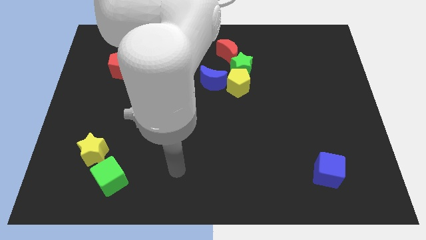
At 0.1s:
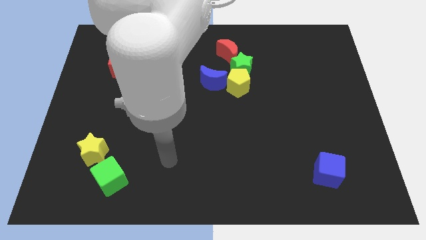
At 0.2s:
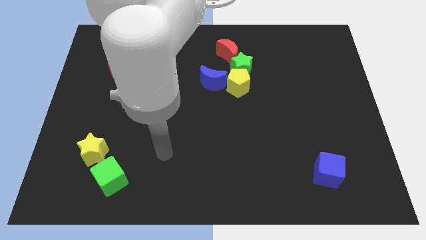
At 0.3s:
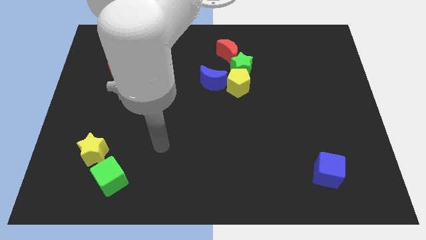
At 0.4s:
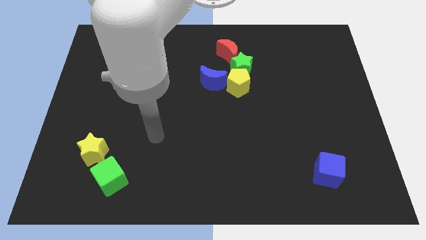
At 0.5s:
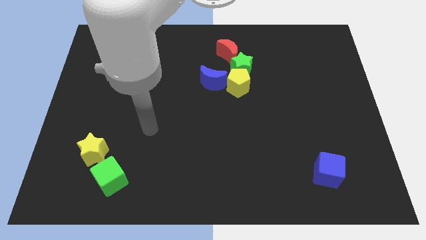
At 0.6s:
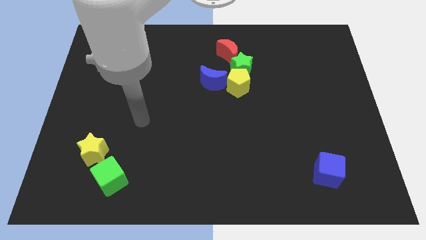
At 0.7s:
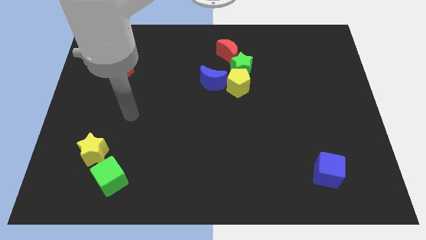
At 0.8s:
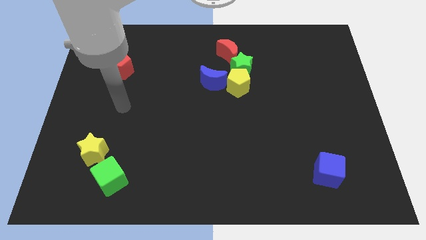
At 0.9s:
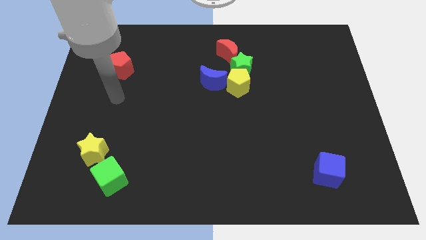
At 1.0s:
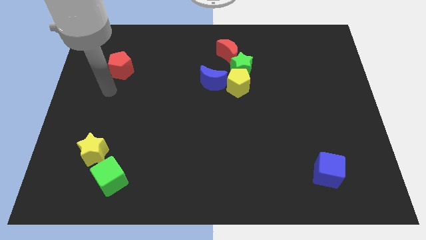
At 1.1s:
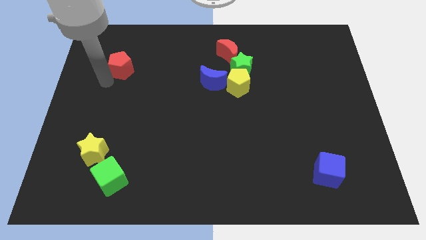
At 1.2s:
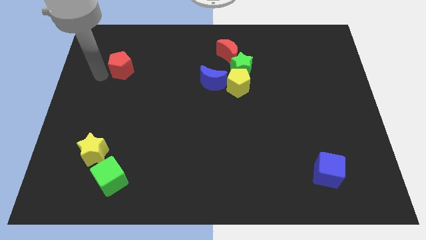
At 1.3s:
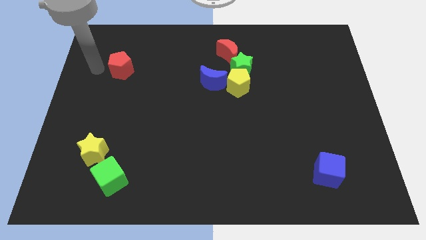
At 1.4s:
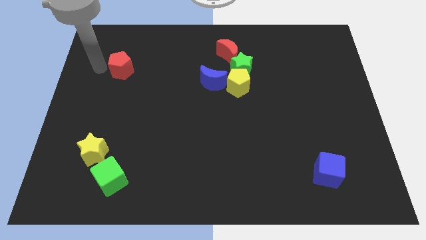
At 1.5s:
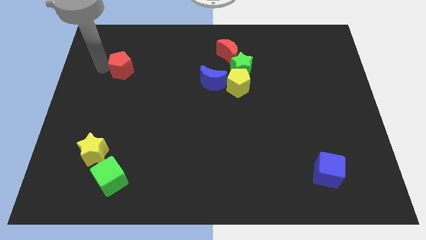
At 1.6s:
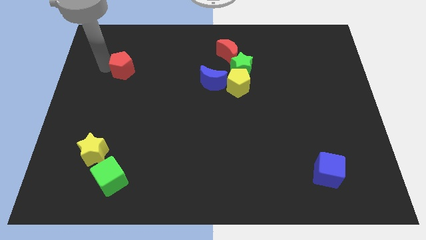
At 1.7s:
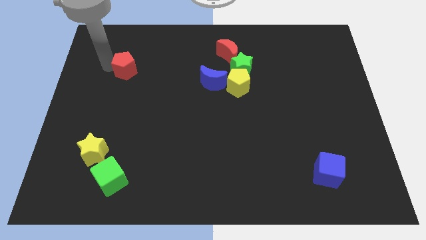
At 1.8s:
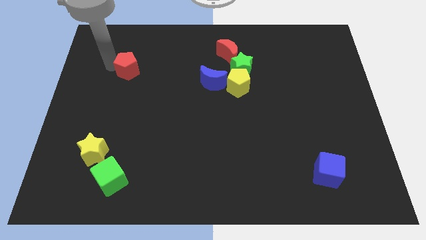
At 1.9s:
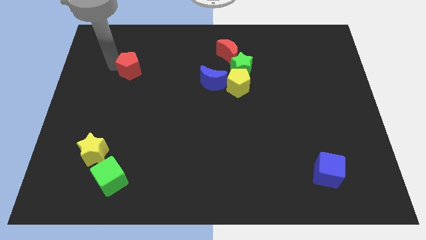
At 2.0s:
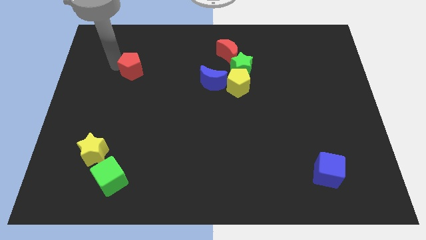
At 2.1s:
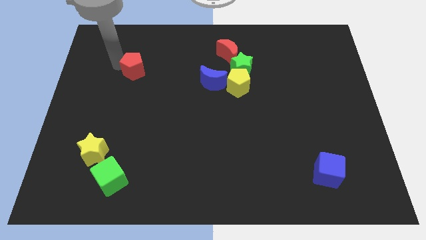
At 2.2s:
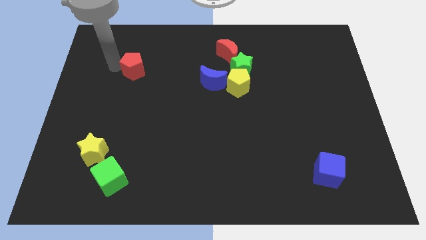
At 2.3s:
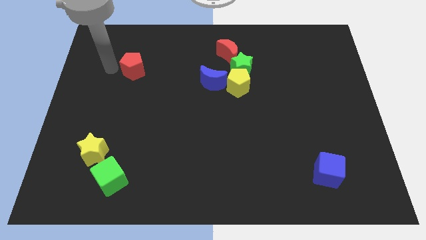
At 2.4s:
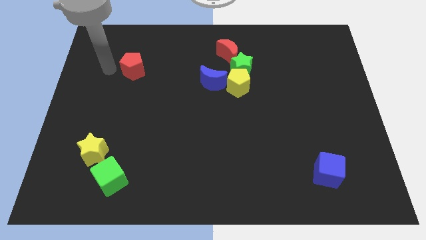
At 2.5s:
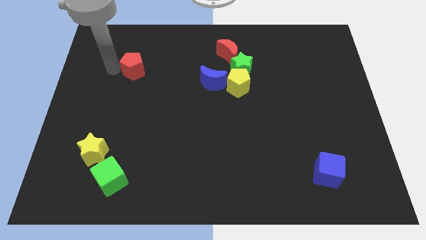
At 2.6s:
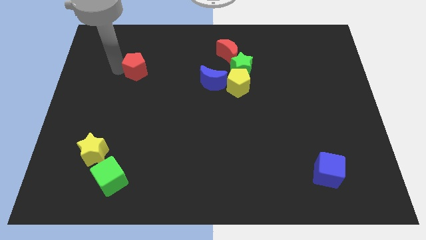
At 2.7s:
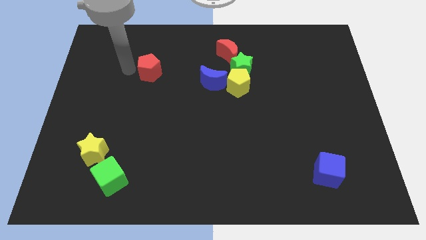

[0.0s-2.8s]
push the red pentagon slightly to the right

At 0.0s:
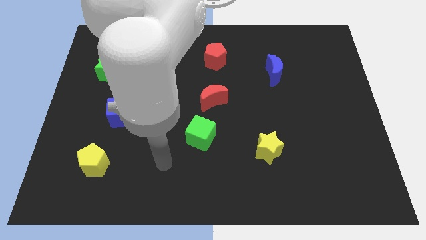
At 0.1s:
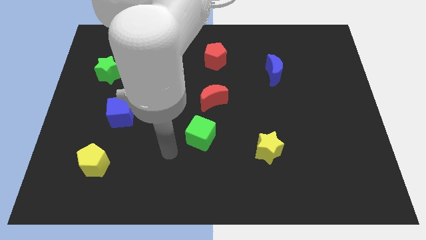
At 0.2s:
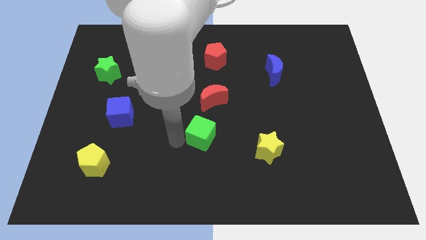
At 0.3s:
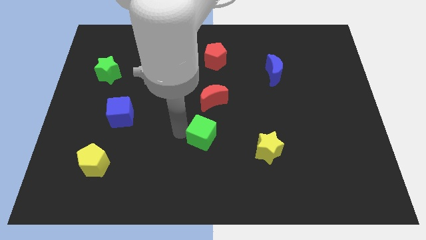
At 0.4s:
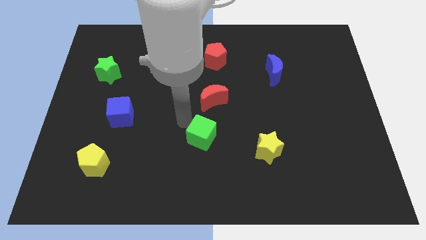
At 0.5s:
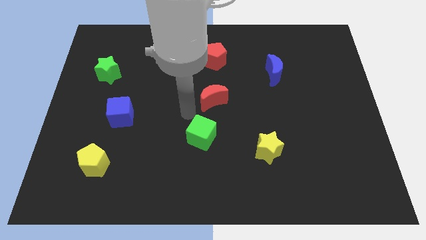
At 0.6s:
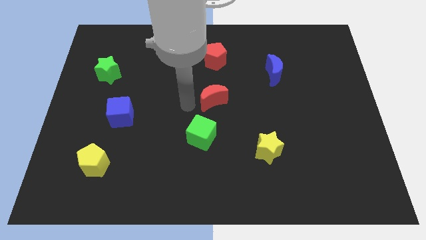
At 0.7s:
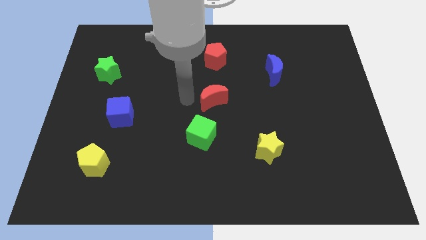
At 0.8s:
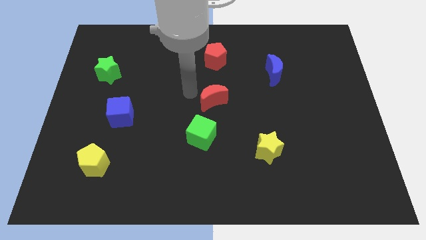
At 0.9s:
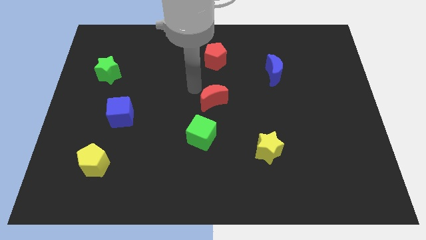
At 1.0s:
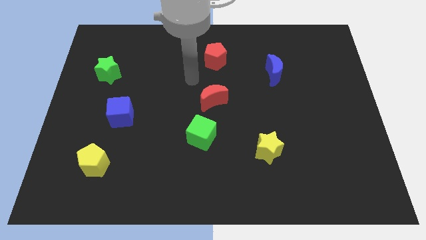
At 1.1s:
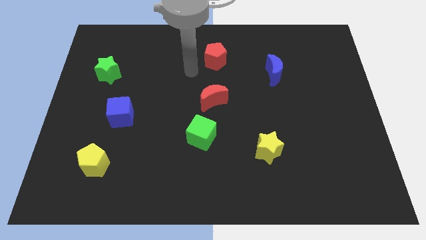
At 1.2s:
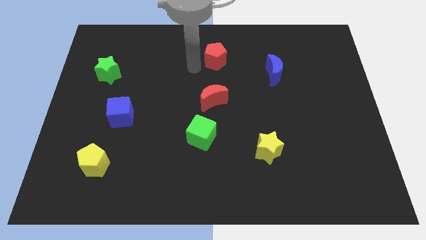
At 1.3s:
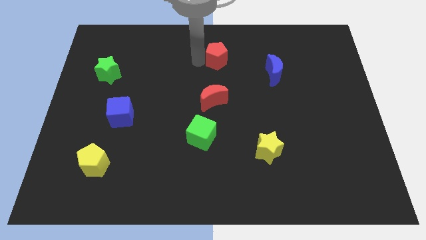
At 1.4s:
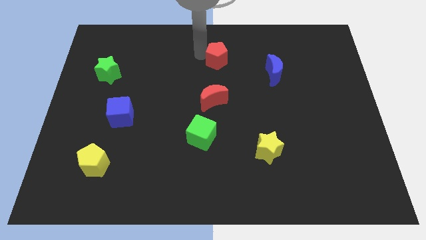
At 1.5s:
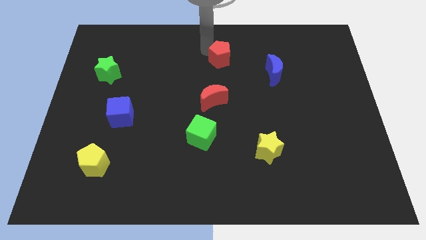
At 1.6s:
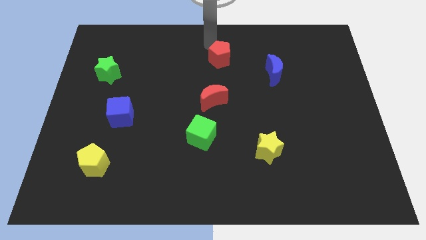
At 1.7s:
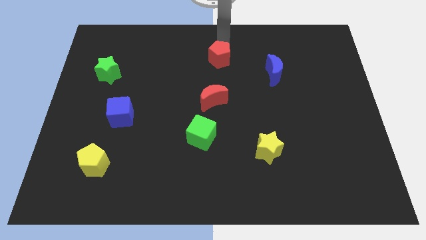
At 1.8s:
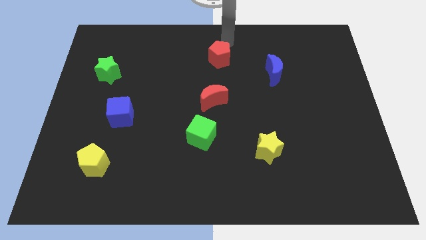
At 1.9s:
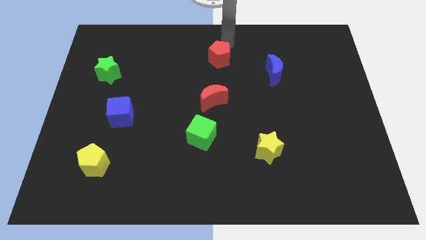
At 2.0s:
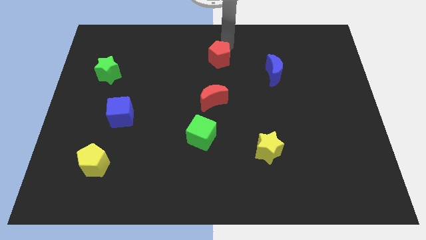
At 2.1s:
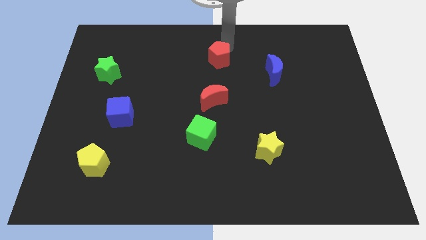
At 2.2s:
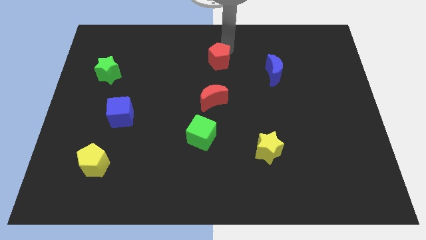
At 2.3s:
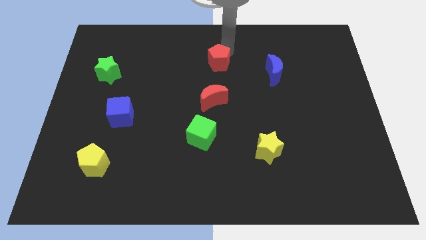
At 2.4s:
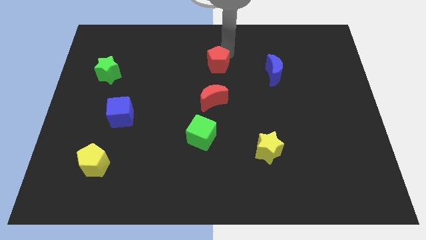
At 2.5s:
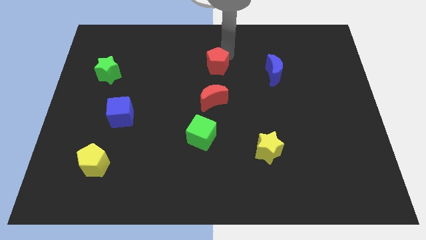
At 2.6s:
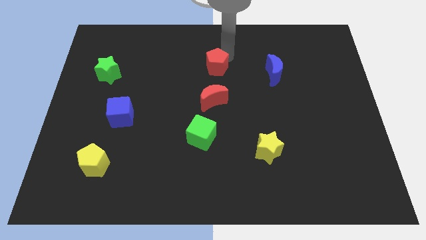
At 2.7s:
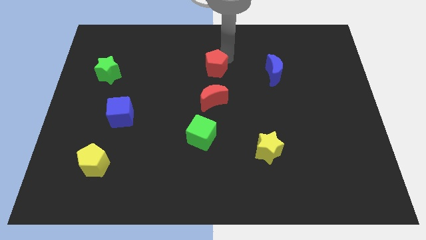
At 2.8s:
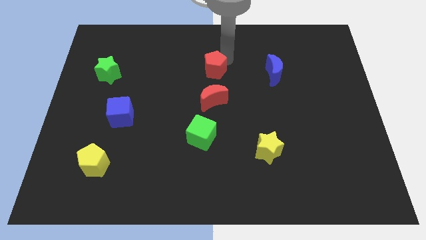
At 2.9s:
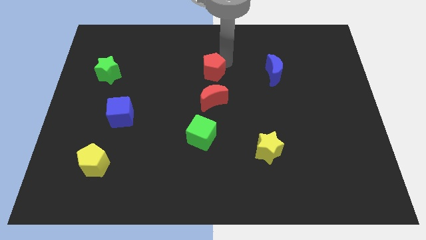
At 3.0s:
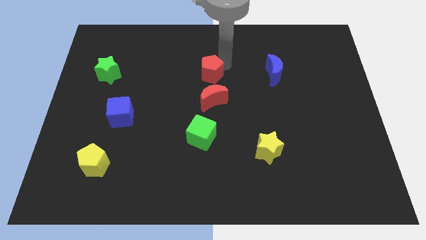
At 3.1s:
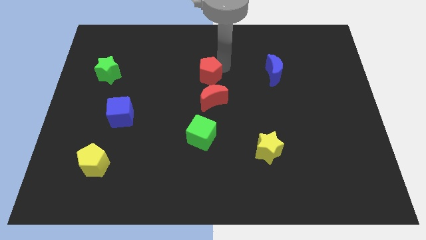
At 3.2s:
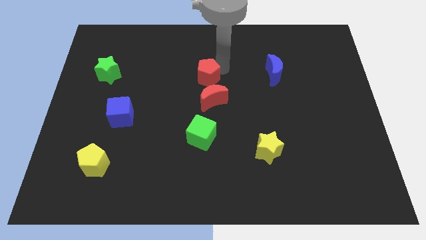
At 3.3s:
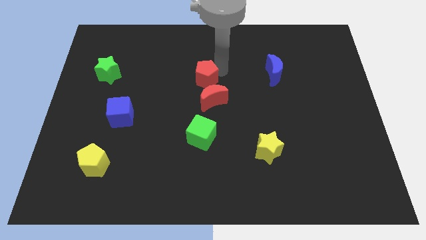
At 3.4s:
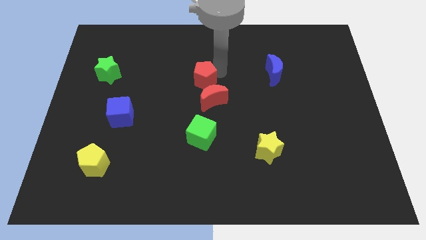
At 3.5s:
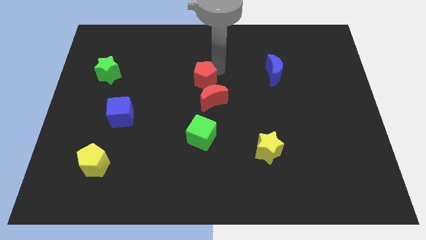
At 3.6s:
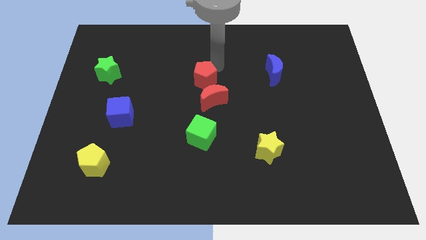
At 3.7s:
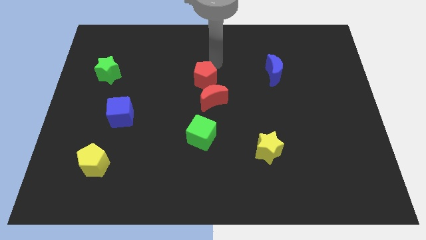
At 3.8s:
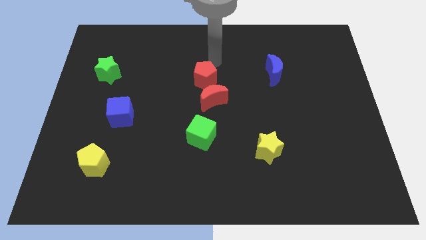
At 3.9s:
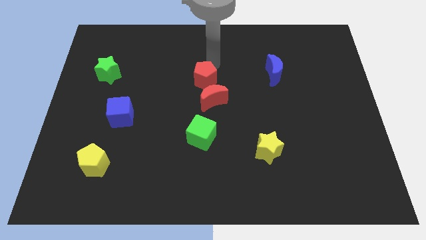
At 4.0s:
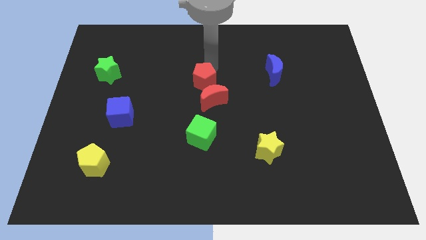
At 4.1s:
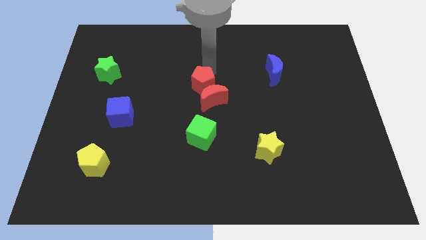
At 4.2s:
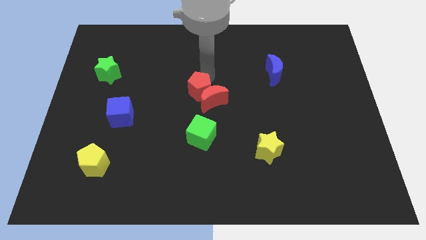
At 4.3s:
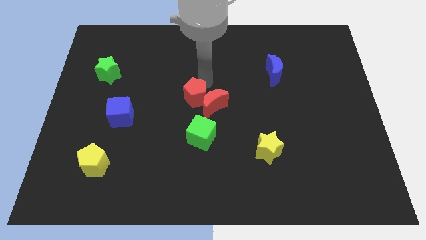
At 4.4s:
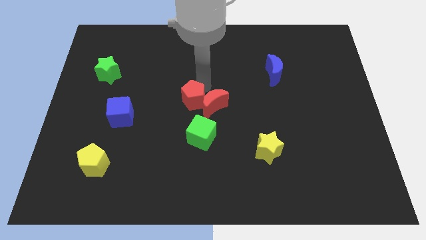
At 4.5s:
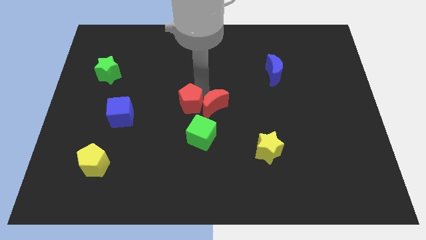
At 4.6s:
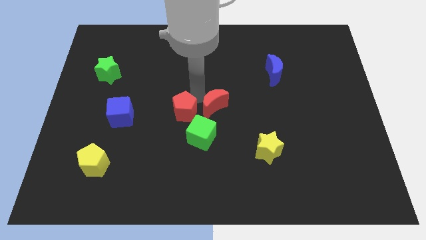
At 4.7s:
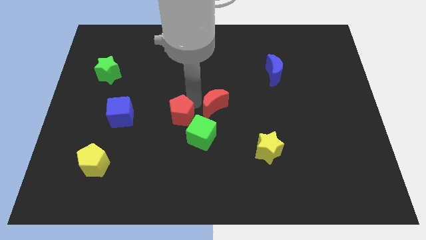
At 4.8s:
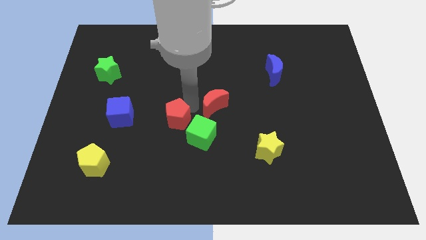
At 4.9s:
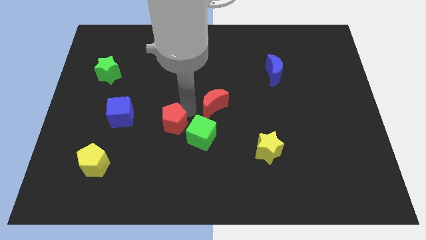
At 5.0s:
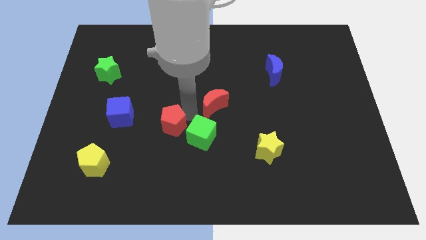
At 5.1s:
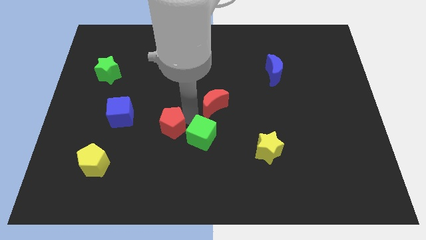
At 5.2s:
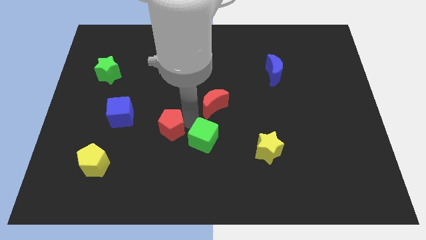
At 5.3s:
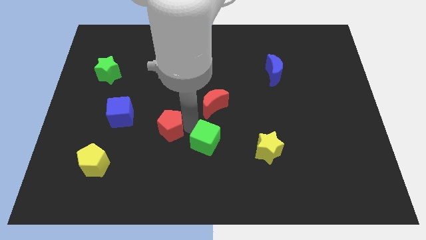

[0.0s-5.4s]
move the red pentagon downwards and to the left

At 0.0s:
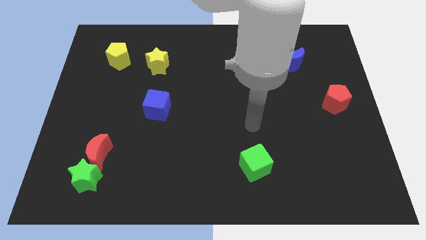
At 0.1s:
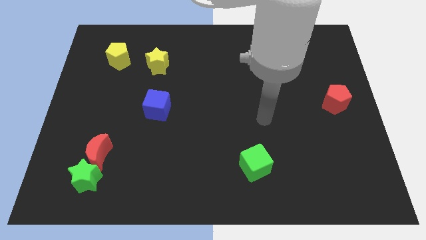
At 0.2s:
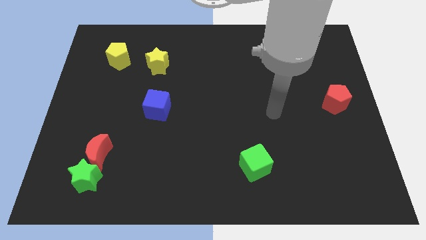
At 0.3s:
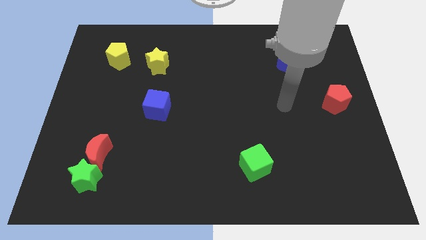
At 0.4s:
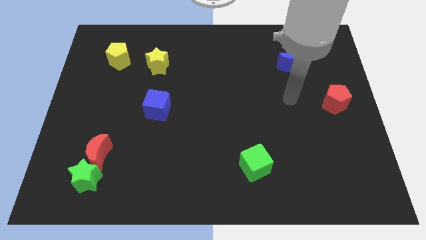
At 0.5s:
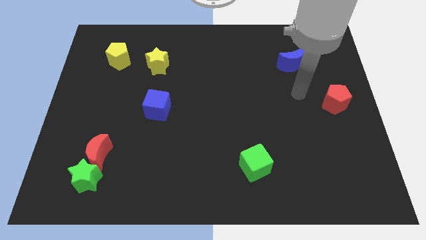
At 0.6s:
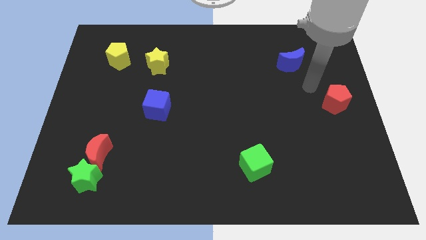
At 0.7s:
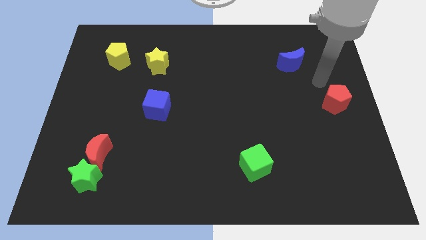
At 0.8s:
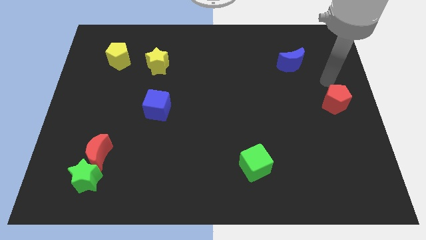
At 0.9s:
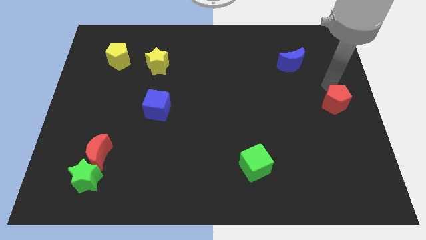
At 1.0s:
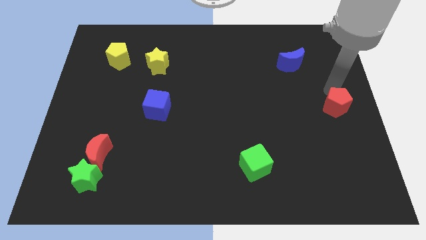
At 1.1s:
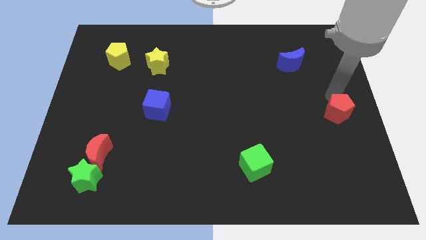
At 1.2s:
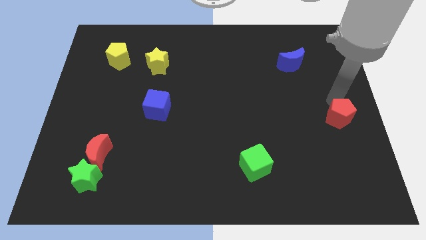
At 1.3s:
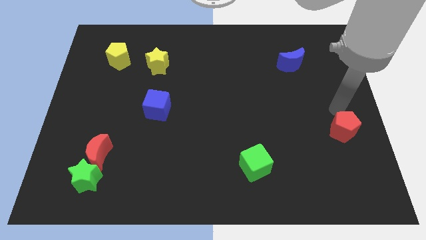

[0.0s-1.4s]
slide the red pentagon downwards a bit
